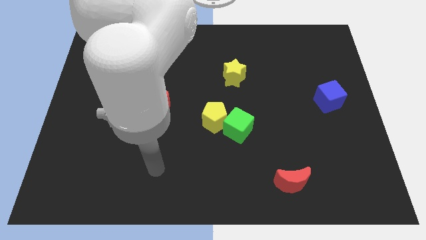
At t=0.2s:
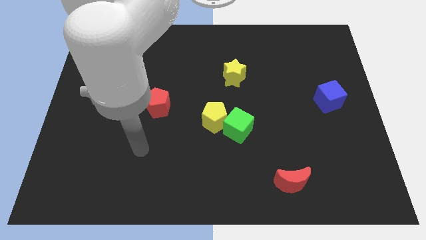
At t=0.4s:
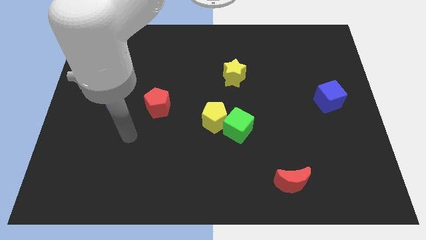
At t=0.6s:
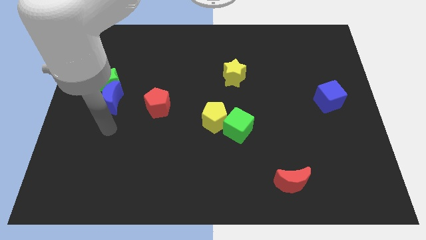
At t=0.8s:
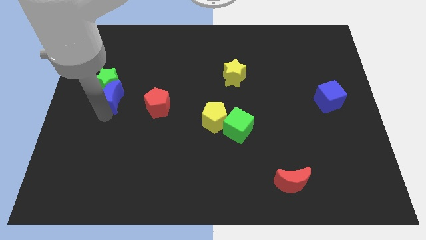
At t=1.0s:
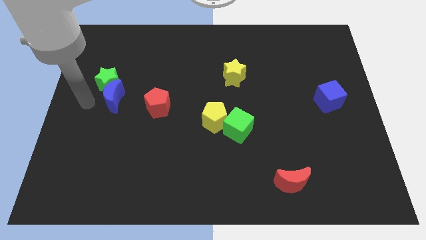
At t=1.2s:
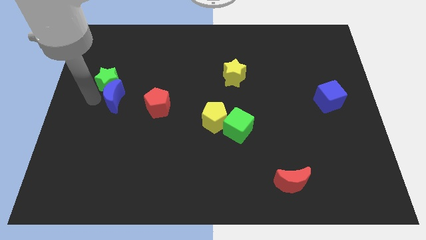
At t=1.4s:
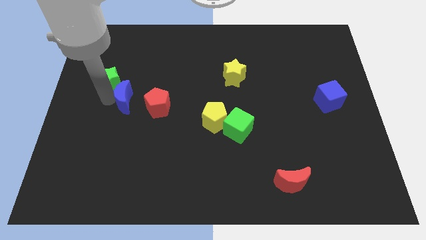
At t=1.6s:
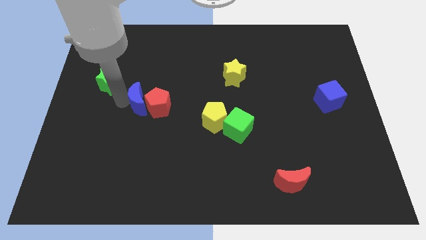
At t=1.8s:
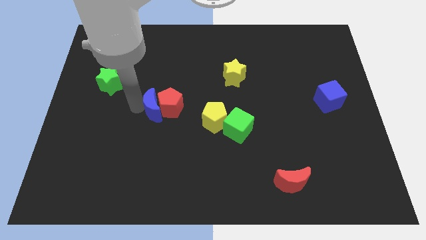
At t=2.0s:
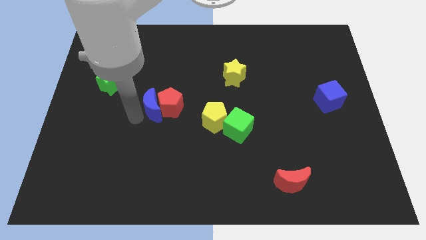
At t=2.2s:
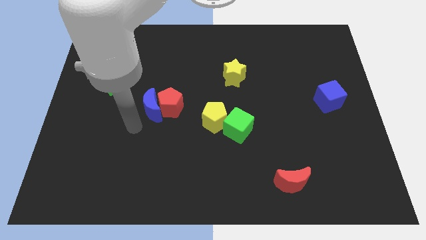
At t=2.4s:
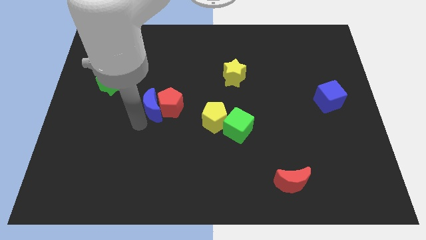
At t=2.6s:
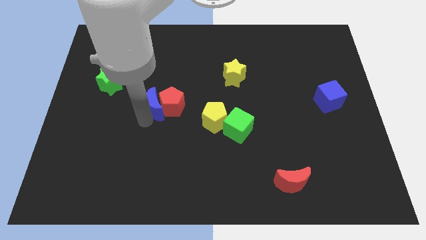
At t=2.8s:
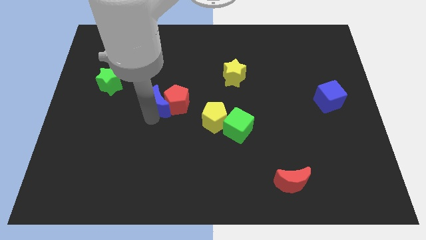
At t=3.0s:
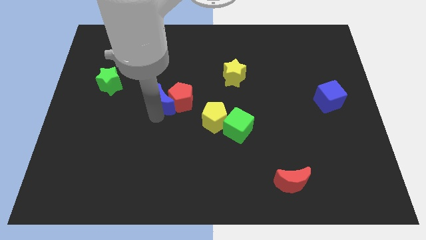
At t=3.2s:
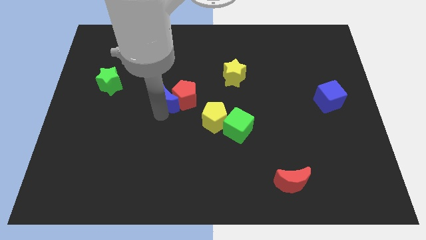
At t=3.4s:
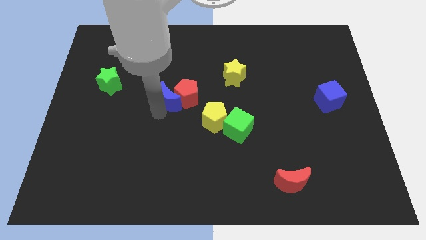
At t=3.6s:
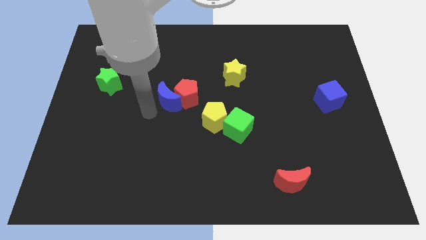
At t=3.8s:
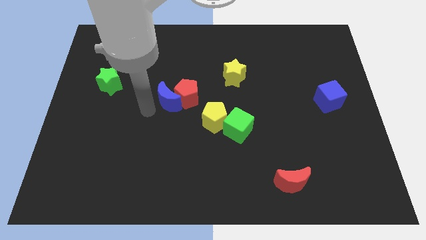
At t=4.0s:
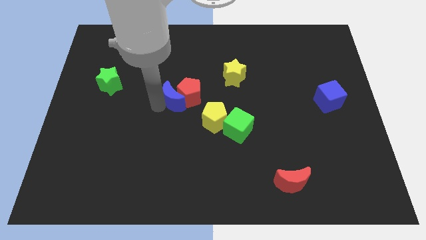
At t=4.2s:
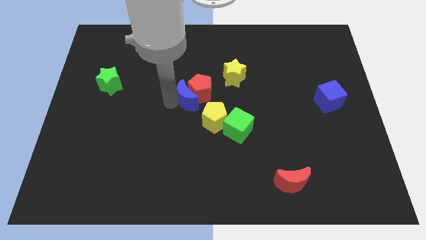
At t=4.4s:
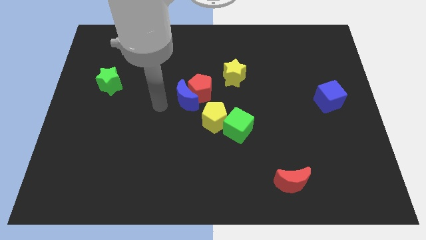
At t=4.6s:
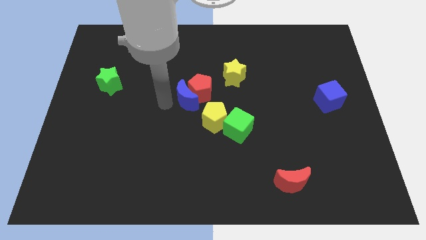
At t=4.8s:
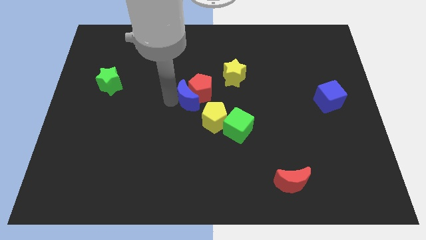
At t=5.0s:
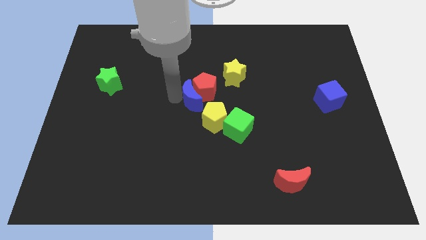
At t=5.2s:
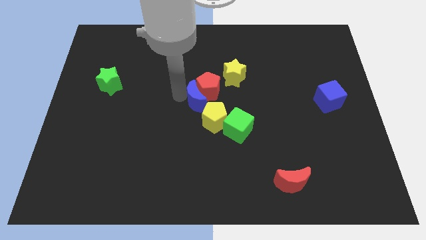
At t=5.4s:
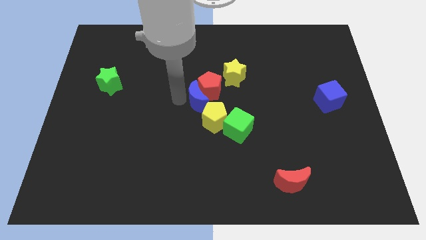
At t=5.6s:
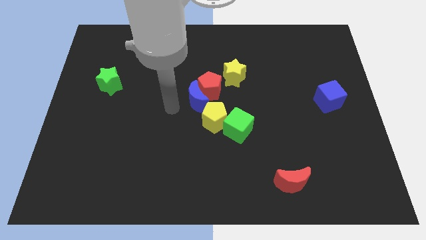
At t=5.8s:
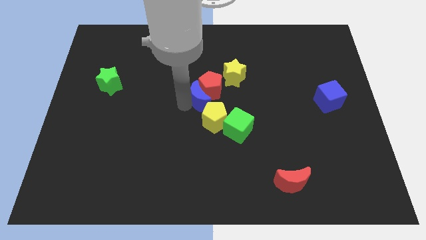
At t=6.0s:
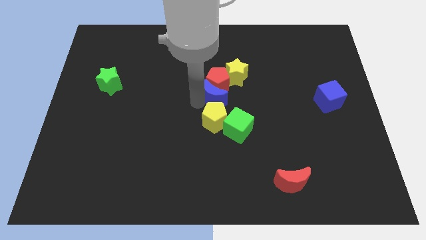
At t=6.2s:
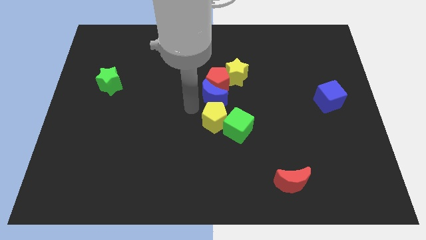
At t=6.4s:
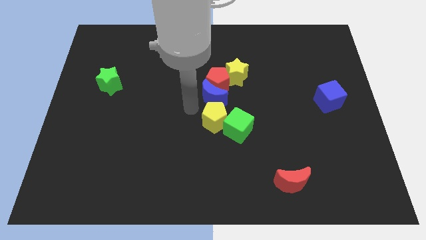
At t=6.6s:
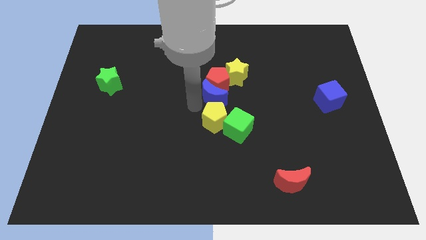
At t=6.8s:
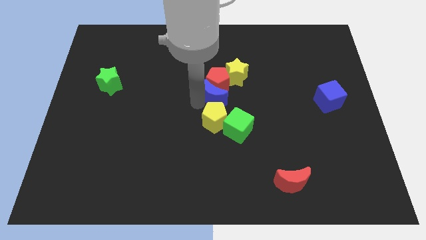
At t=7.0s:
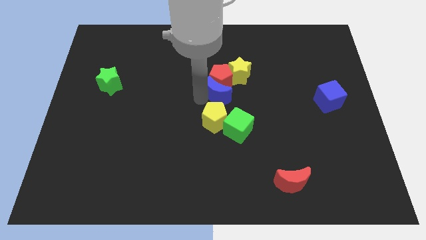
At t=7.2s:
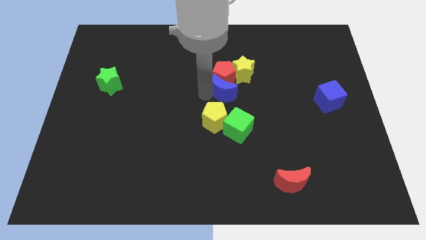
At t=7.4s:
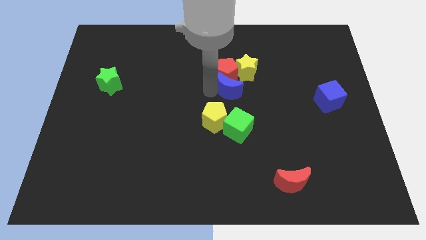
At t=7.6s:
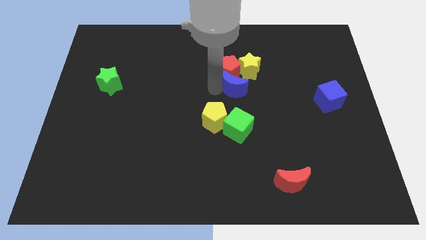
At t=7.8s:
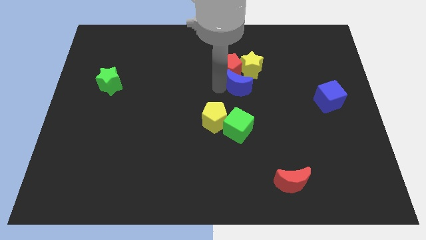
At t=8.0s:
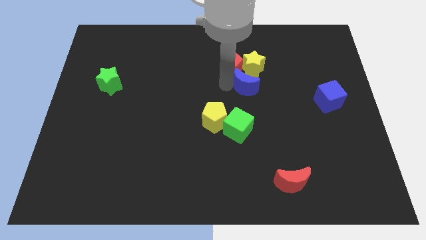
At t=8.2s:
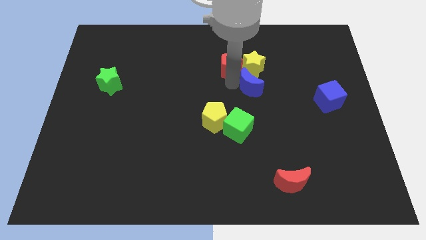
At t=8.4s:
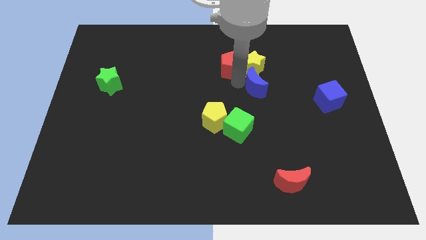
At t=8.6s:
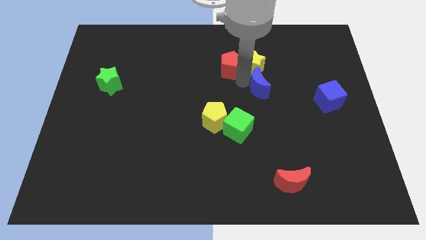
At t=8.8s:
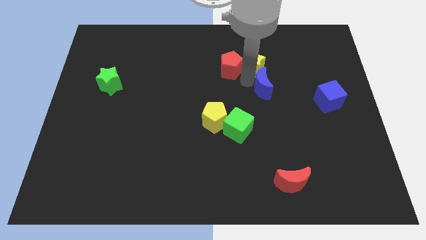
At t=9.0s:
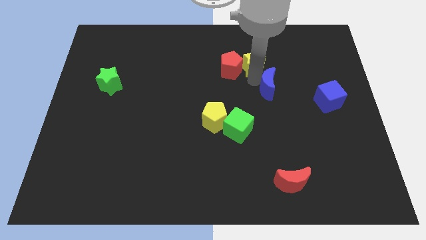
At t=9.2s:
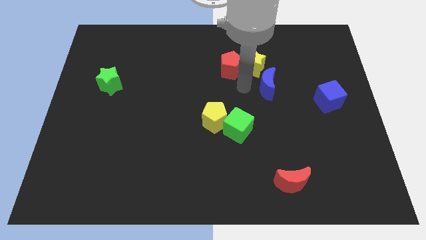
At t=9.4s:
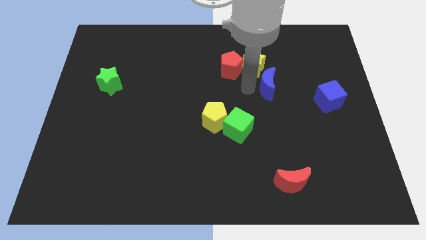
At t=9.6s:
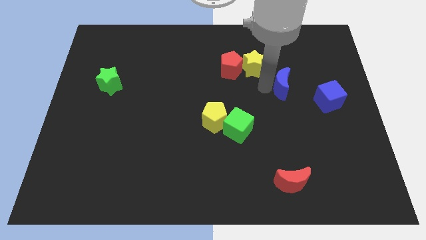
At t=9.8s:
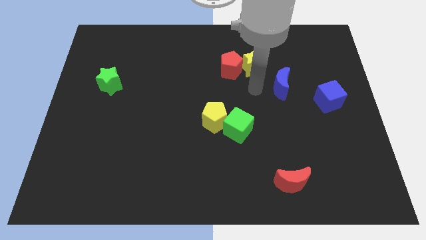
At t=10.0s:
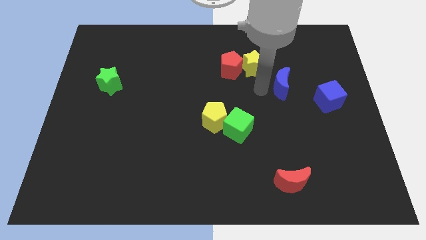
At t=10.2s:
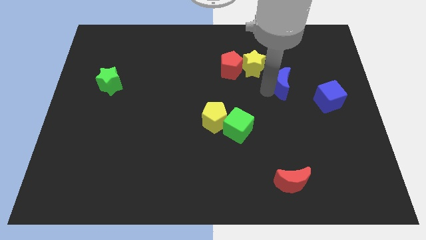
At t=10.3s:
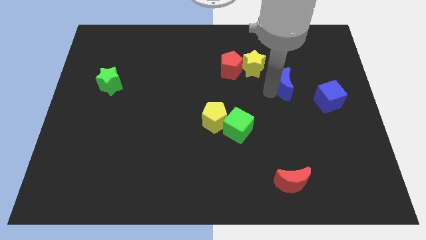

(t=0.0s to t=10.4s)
push the blue moon diagonally up and to the left of the blue cube

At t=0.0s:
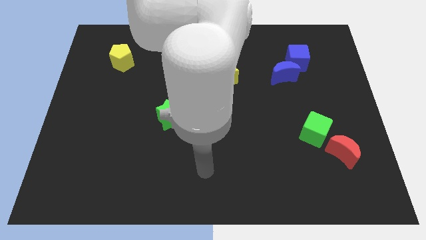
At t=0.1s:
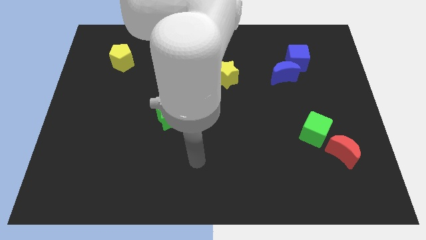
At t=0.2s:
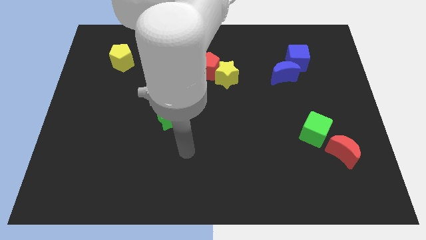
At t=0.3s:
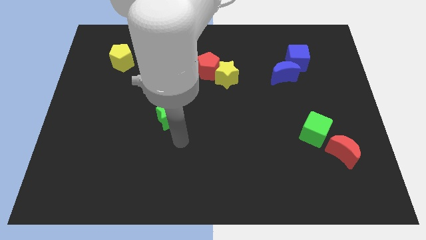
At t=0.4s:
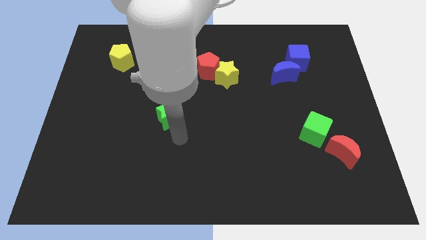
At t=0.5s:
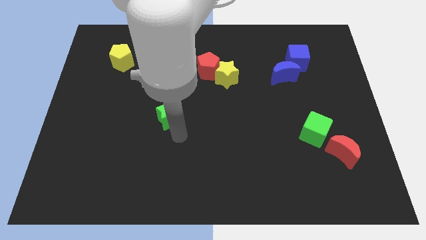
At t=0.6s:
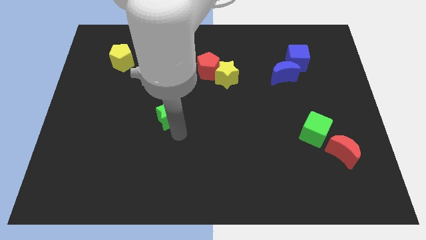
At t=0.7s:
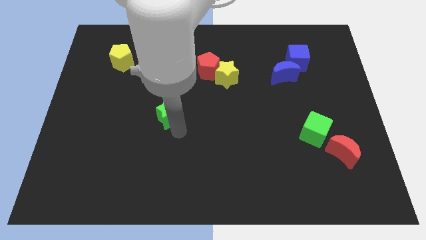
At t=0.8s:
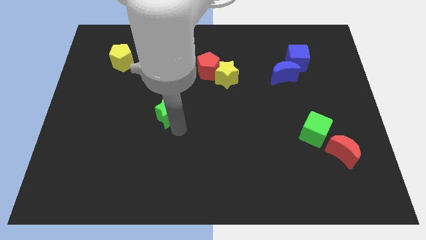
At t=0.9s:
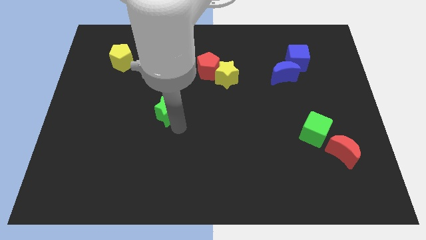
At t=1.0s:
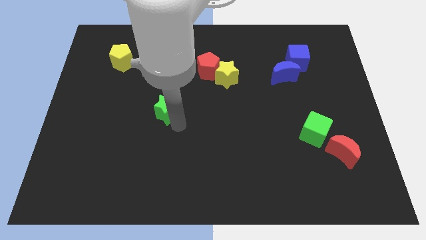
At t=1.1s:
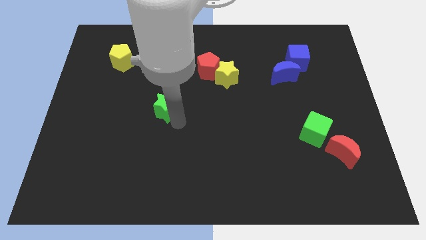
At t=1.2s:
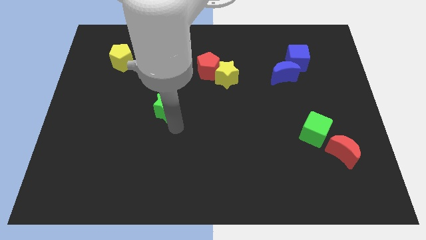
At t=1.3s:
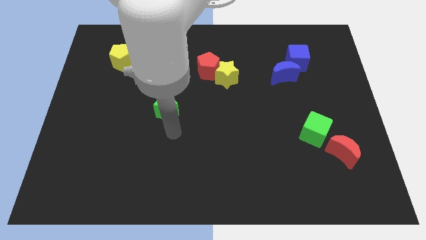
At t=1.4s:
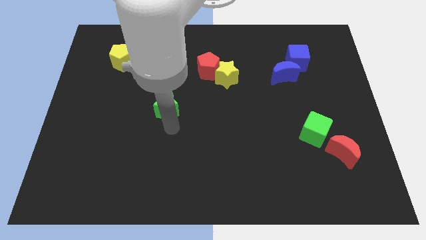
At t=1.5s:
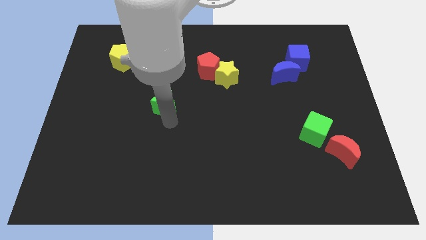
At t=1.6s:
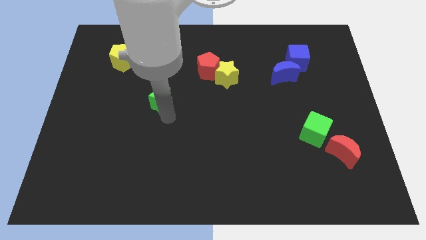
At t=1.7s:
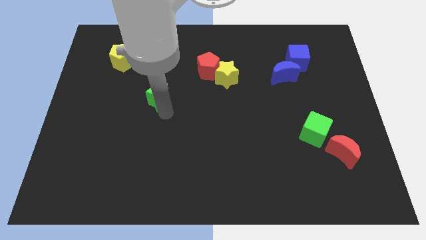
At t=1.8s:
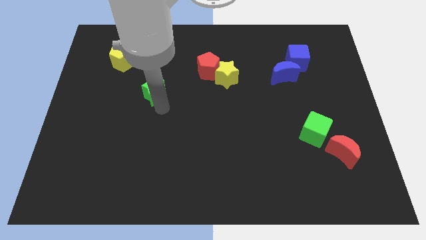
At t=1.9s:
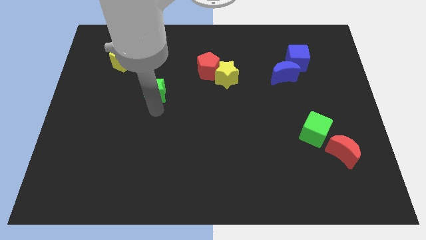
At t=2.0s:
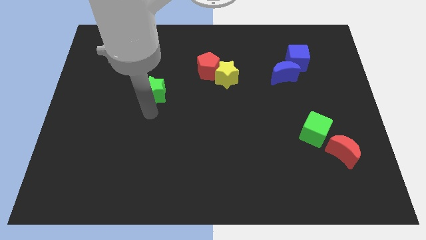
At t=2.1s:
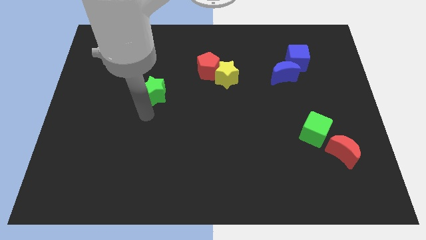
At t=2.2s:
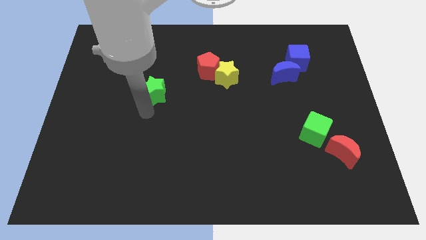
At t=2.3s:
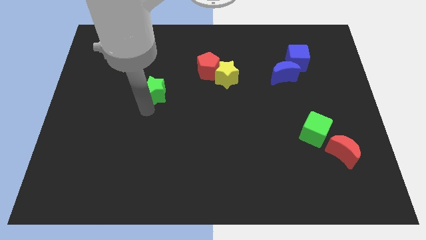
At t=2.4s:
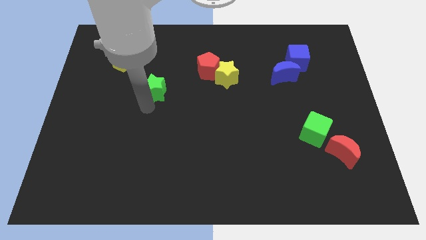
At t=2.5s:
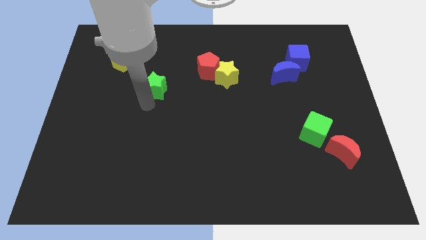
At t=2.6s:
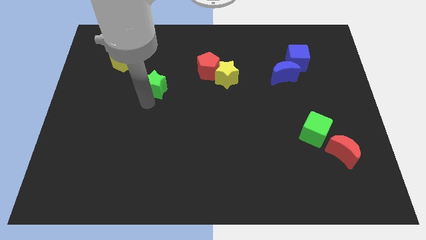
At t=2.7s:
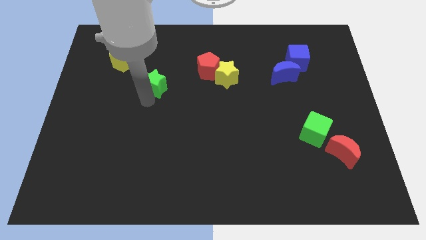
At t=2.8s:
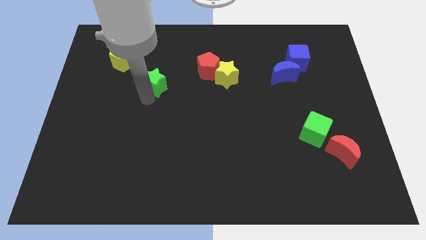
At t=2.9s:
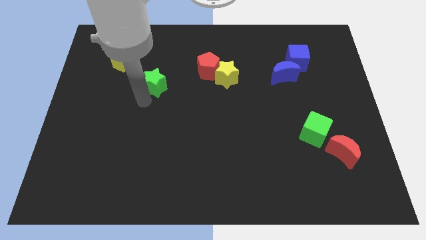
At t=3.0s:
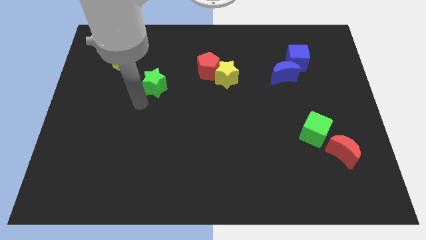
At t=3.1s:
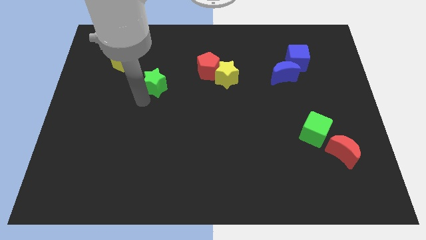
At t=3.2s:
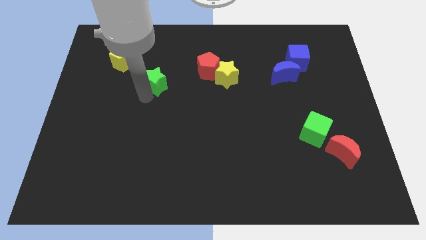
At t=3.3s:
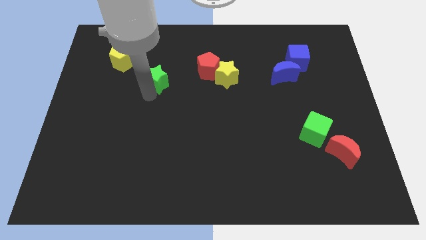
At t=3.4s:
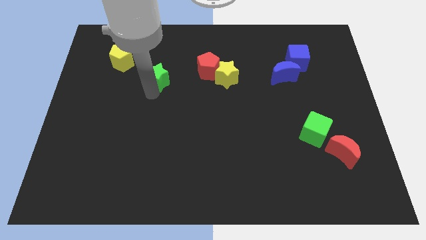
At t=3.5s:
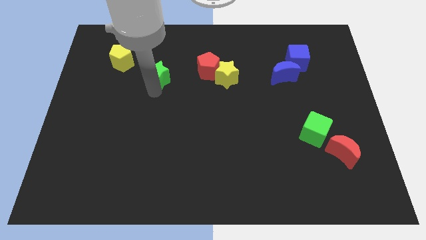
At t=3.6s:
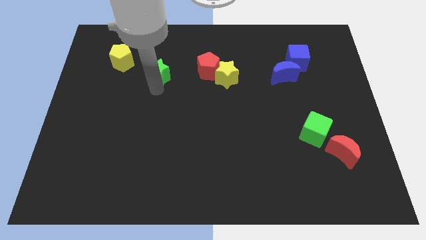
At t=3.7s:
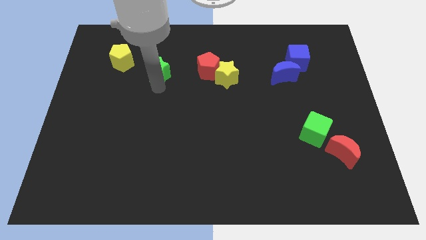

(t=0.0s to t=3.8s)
move the green star right of the yellow pentagon
